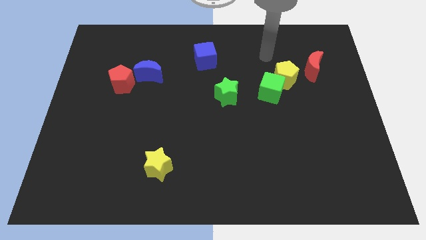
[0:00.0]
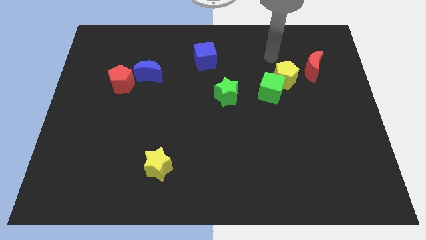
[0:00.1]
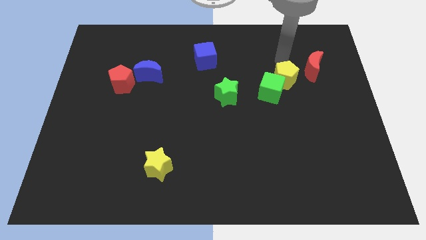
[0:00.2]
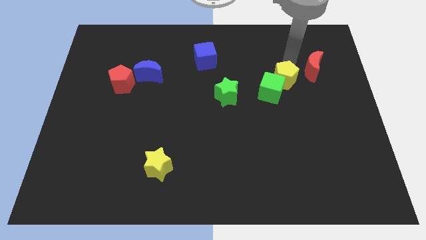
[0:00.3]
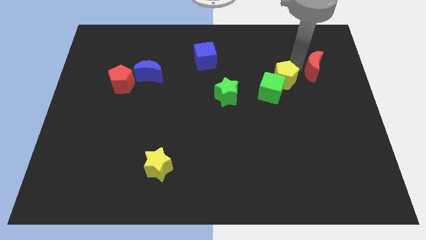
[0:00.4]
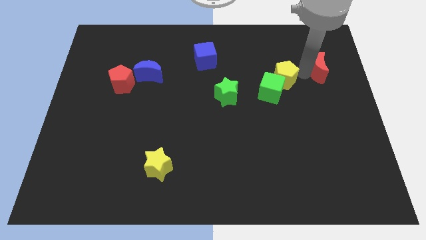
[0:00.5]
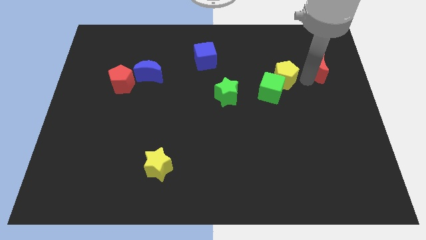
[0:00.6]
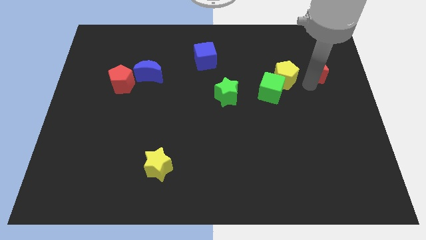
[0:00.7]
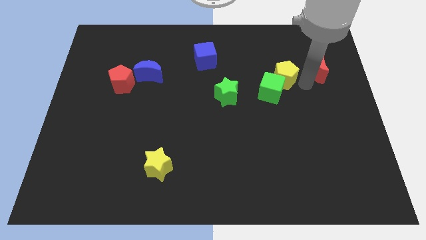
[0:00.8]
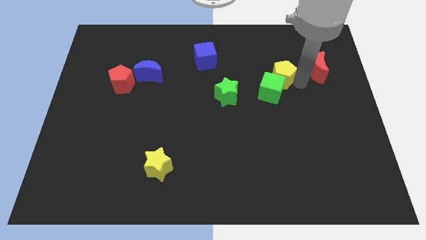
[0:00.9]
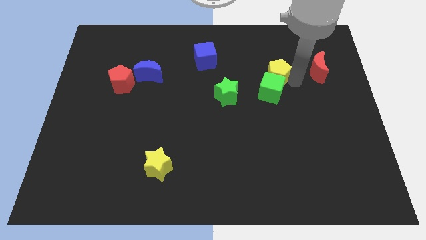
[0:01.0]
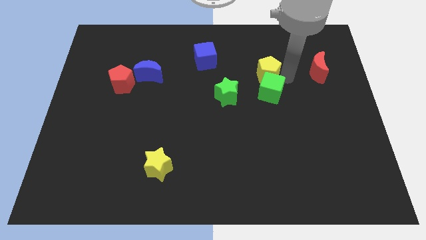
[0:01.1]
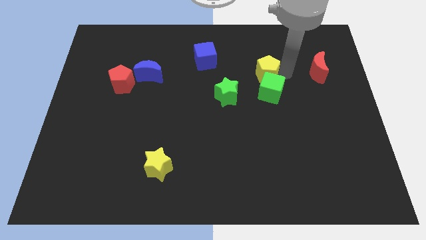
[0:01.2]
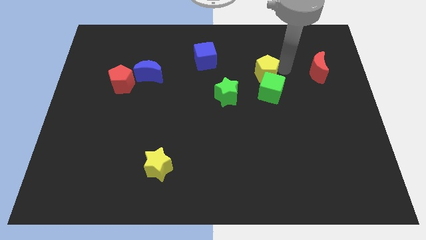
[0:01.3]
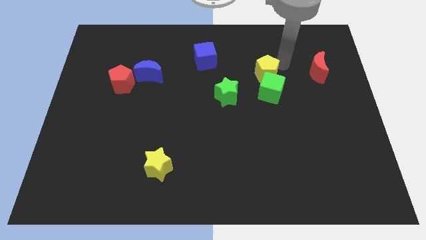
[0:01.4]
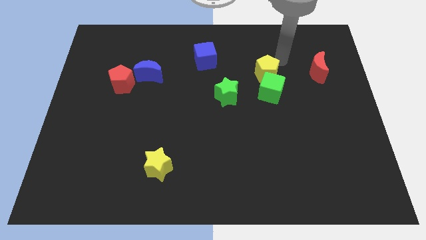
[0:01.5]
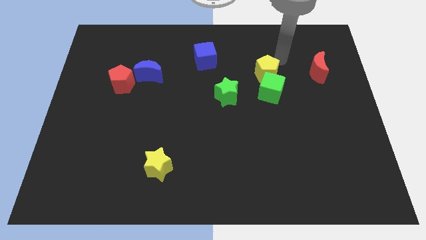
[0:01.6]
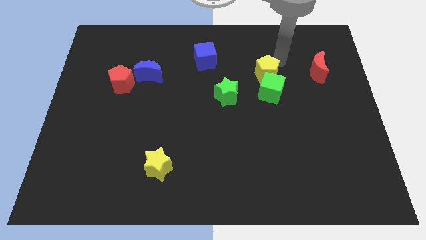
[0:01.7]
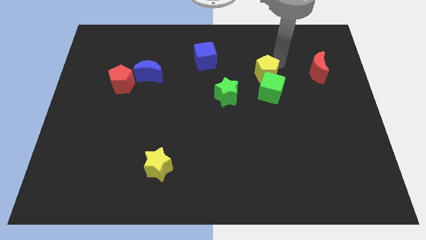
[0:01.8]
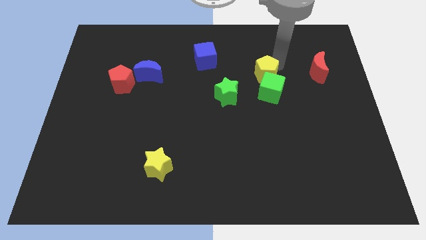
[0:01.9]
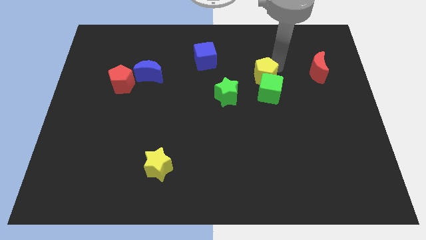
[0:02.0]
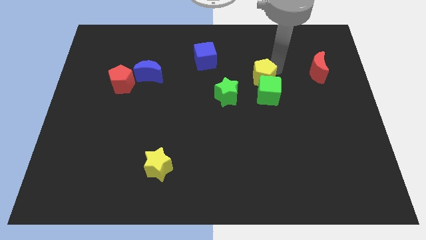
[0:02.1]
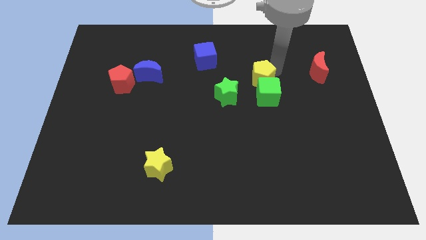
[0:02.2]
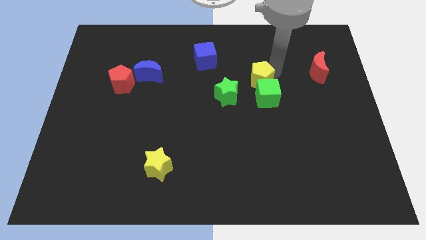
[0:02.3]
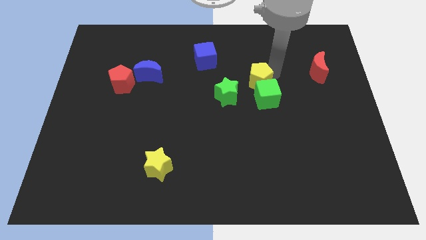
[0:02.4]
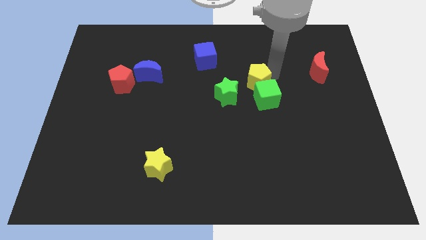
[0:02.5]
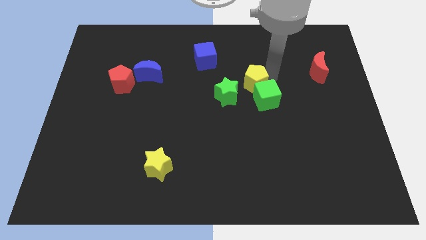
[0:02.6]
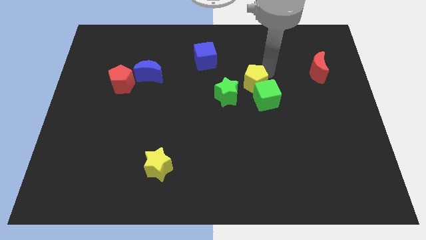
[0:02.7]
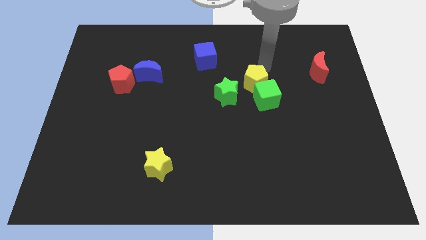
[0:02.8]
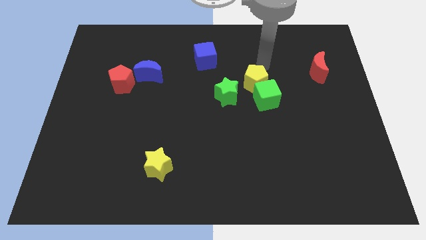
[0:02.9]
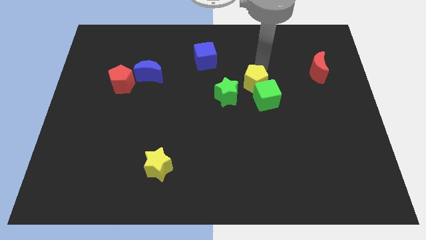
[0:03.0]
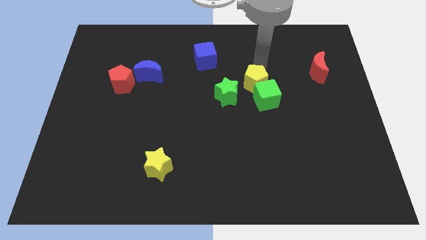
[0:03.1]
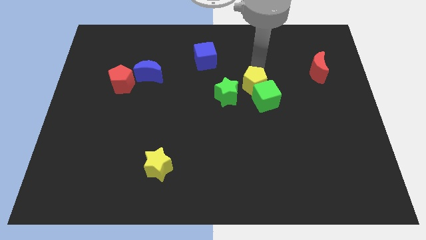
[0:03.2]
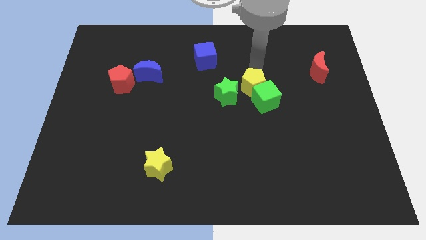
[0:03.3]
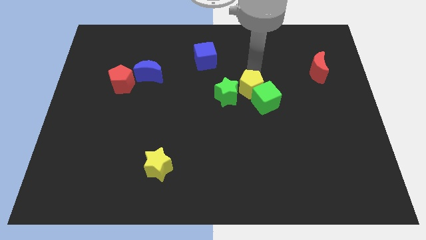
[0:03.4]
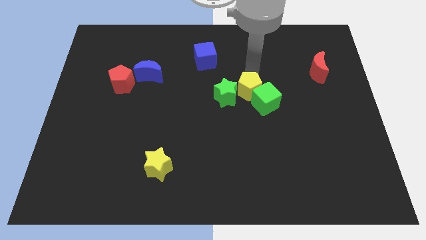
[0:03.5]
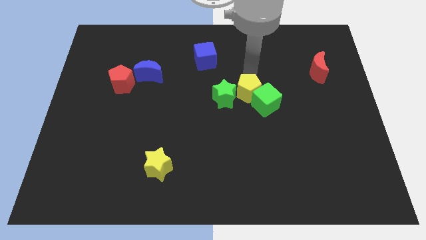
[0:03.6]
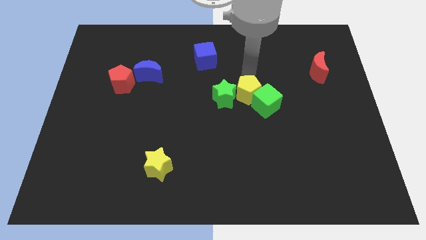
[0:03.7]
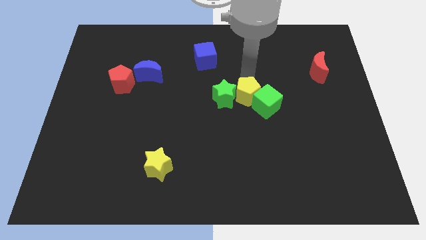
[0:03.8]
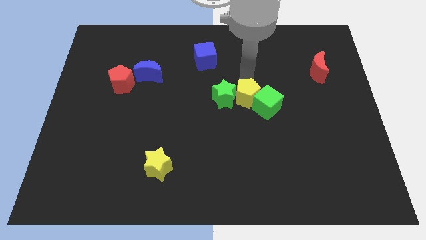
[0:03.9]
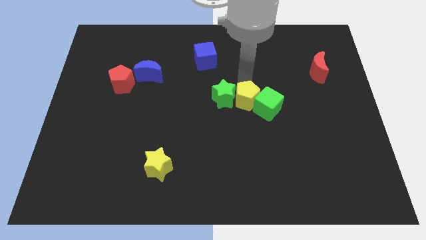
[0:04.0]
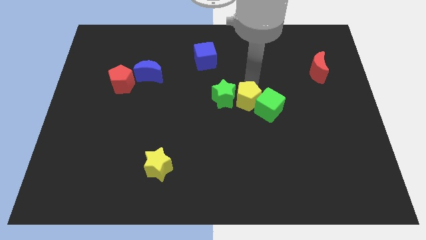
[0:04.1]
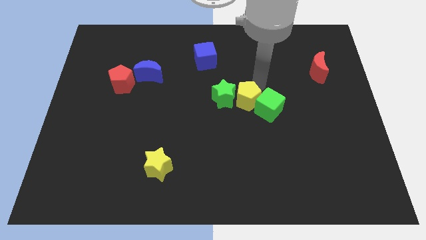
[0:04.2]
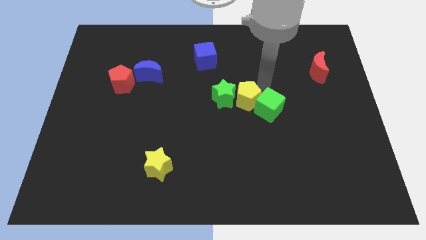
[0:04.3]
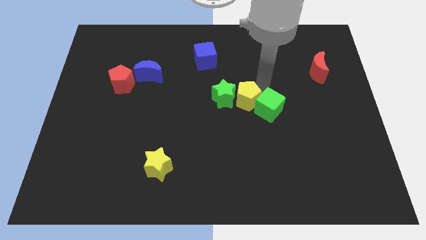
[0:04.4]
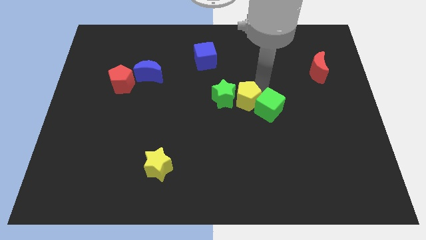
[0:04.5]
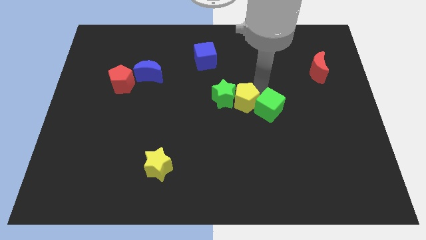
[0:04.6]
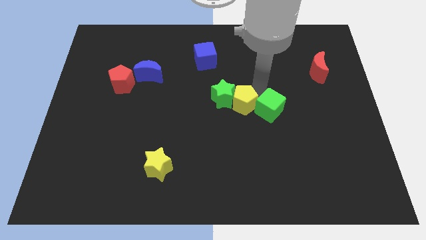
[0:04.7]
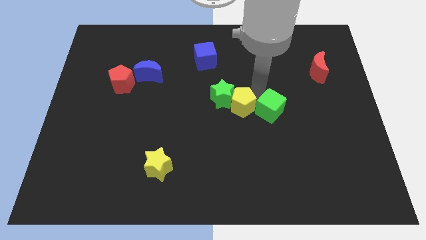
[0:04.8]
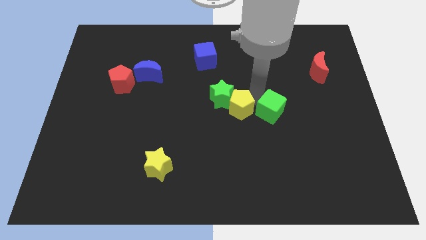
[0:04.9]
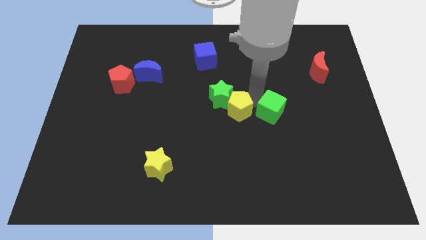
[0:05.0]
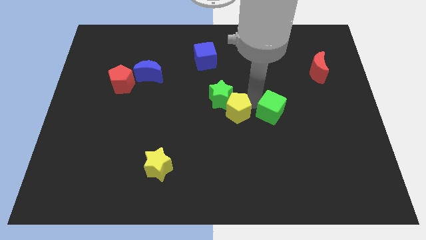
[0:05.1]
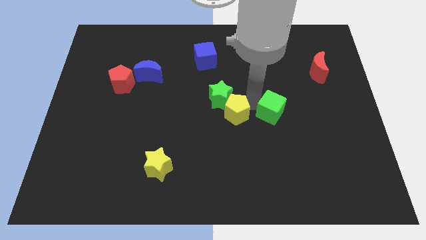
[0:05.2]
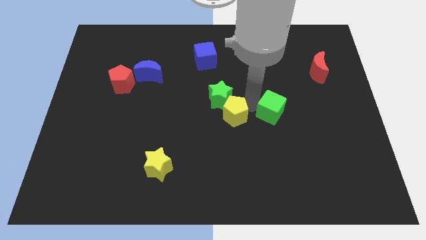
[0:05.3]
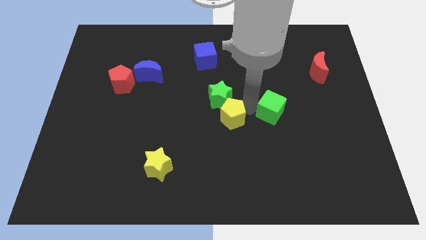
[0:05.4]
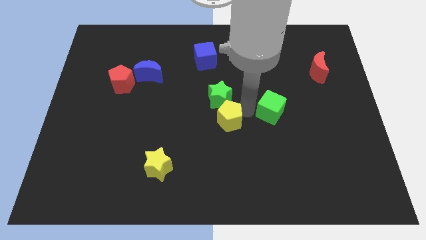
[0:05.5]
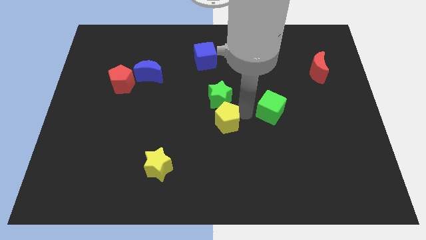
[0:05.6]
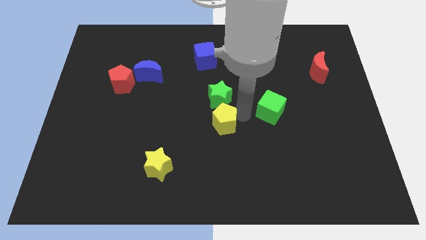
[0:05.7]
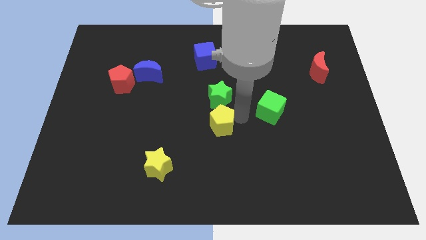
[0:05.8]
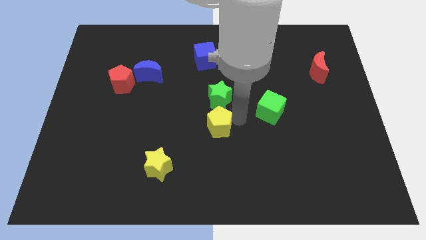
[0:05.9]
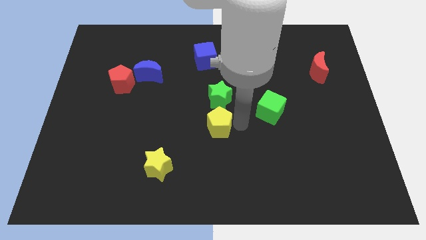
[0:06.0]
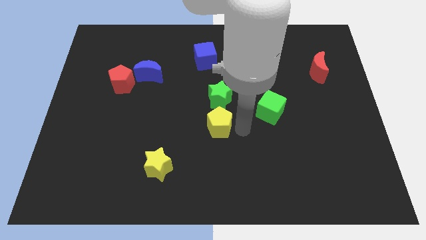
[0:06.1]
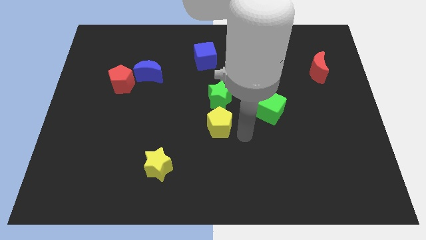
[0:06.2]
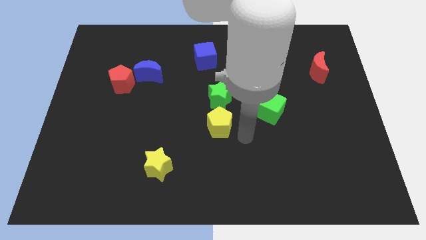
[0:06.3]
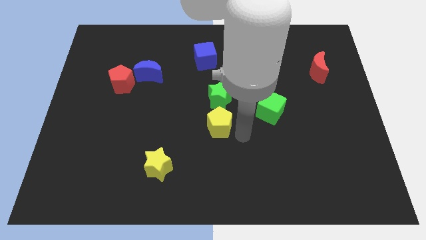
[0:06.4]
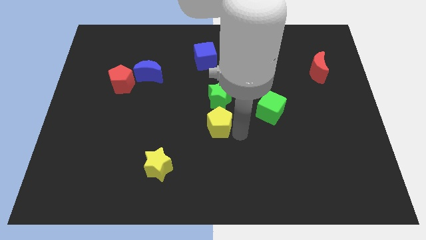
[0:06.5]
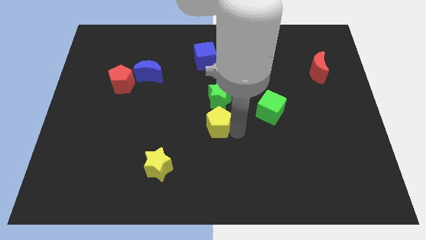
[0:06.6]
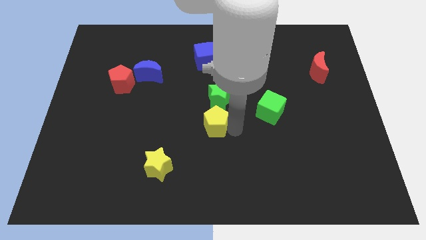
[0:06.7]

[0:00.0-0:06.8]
slide the yellow pentagon to the bottom left of the green star
